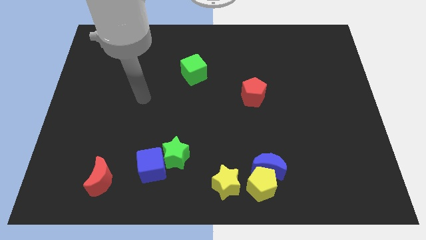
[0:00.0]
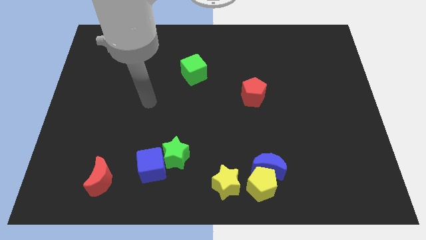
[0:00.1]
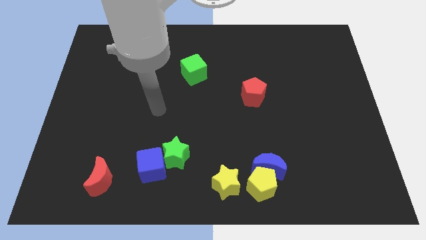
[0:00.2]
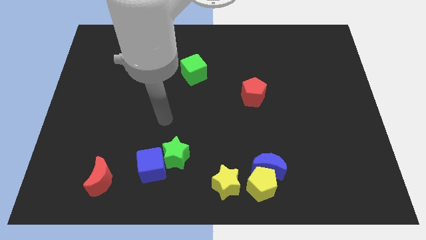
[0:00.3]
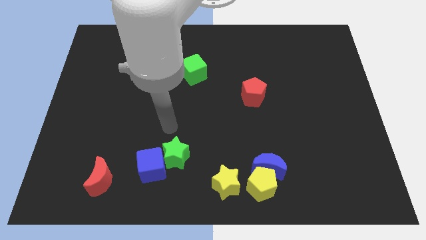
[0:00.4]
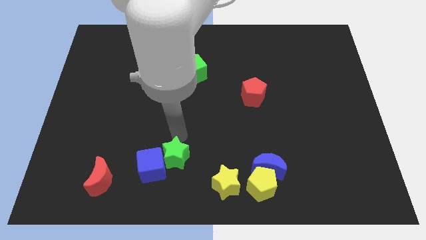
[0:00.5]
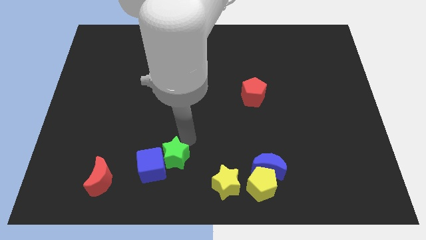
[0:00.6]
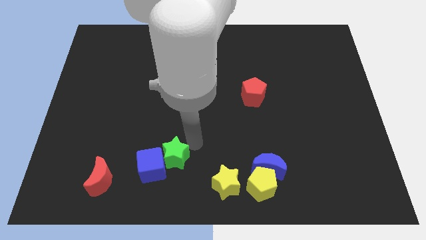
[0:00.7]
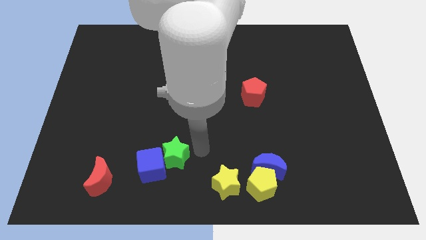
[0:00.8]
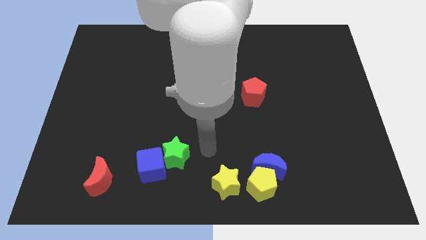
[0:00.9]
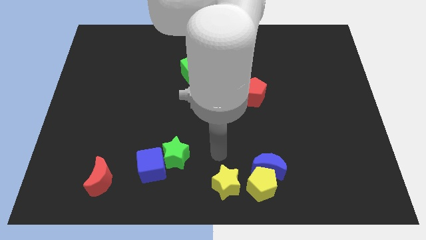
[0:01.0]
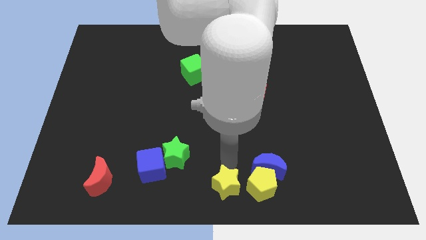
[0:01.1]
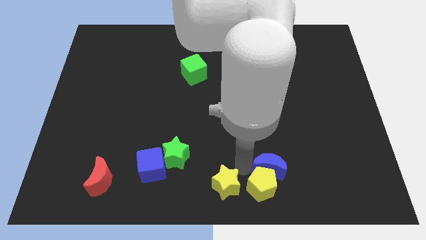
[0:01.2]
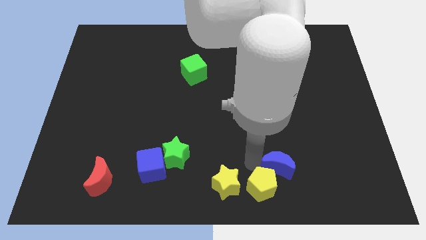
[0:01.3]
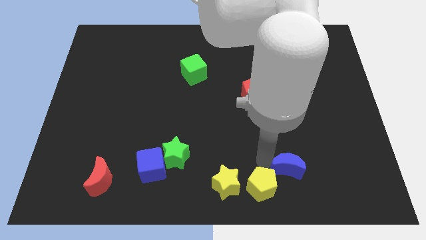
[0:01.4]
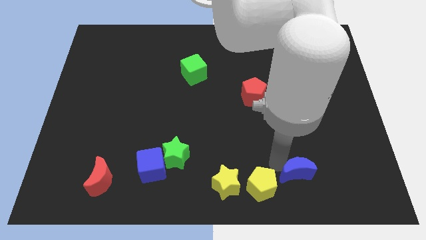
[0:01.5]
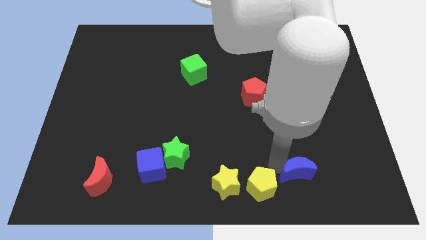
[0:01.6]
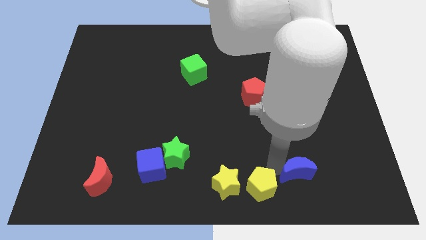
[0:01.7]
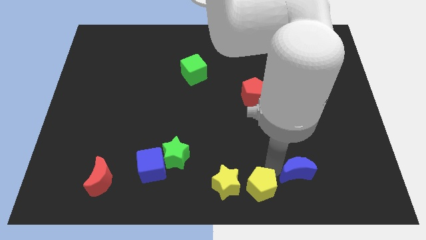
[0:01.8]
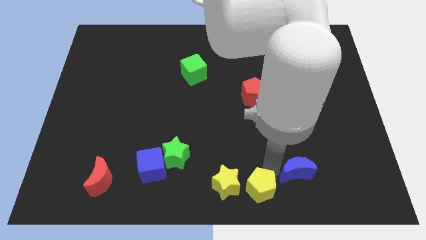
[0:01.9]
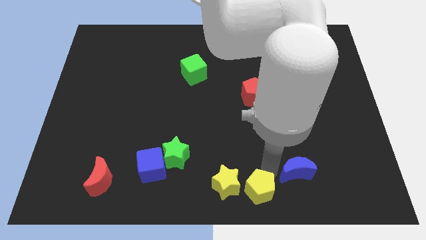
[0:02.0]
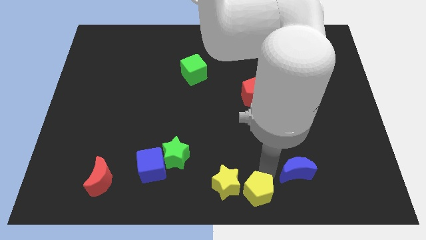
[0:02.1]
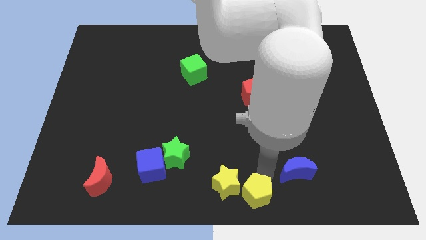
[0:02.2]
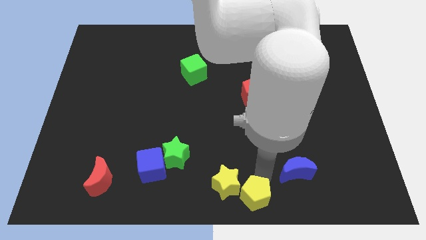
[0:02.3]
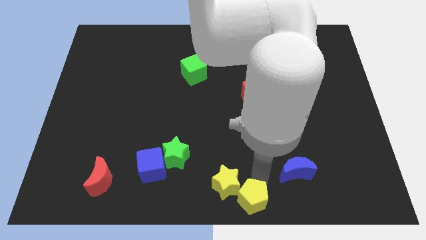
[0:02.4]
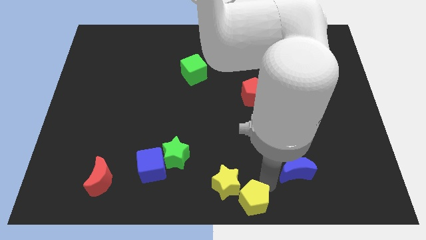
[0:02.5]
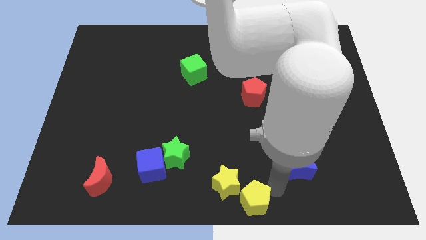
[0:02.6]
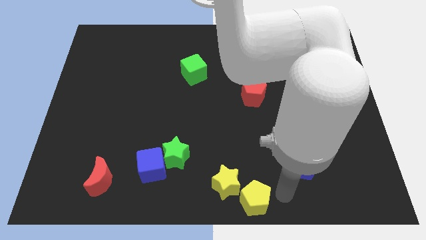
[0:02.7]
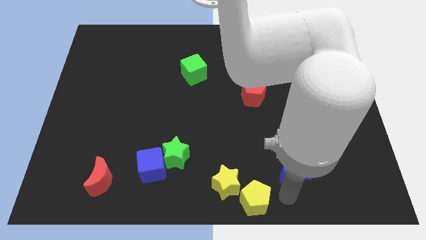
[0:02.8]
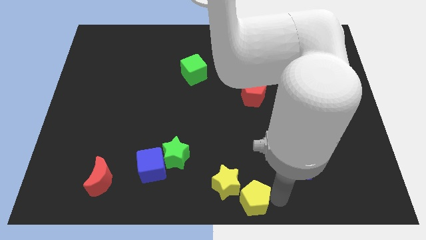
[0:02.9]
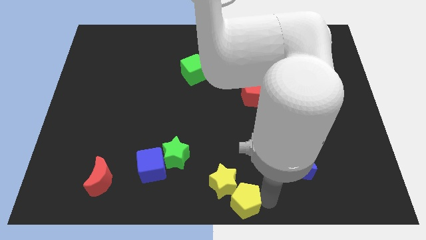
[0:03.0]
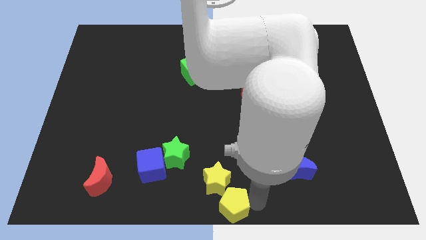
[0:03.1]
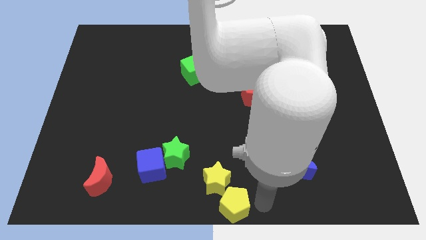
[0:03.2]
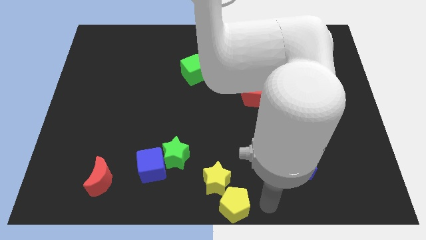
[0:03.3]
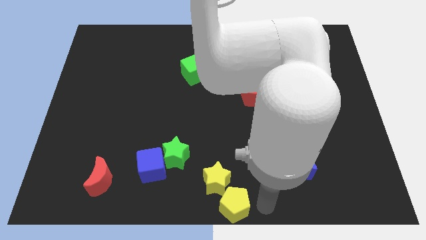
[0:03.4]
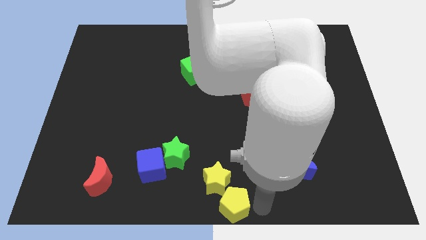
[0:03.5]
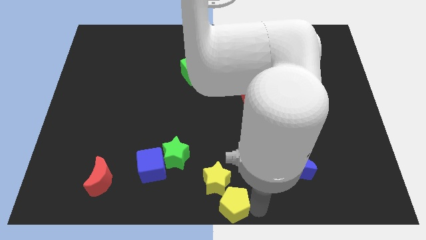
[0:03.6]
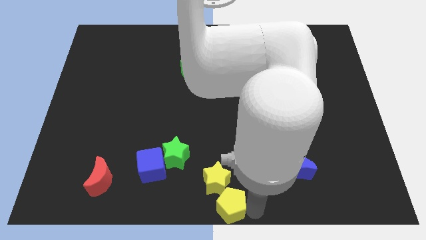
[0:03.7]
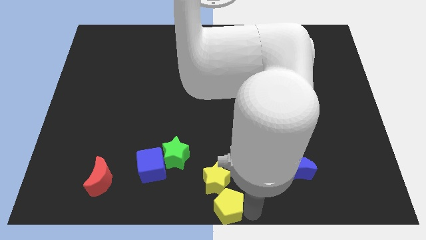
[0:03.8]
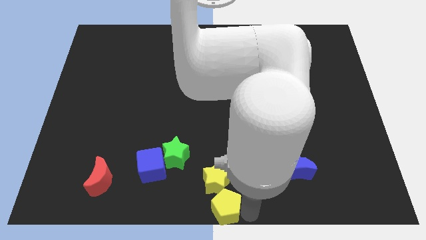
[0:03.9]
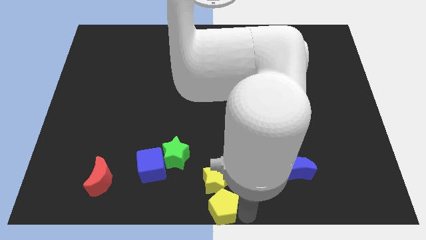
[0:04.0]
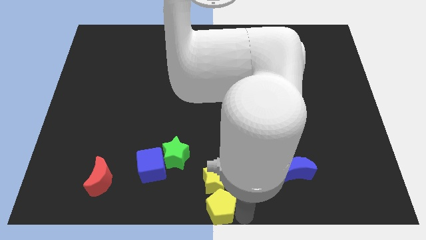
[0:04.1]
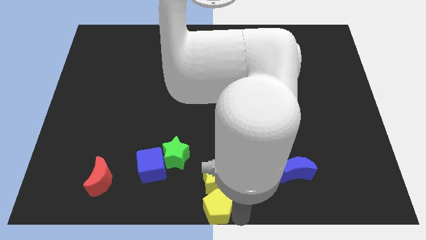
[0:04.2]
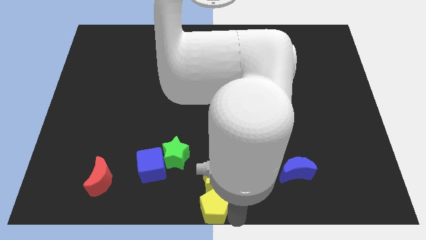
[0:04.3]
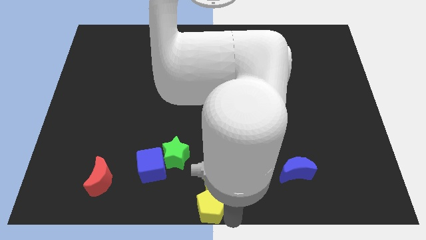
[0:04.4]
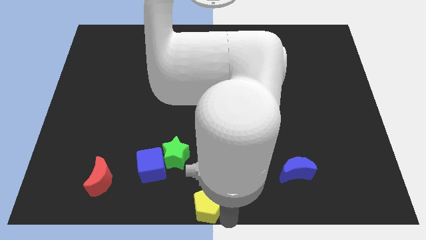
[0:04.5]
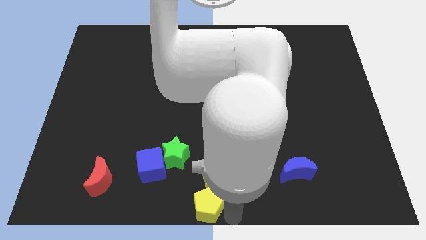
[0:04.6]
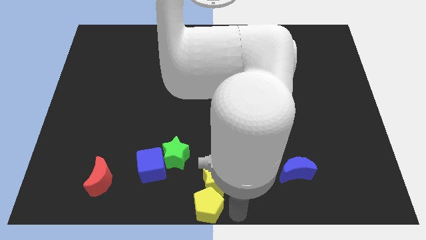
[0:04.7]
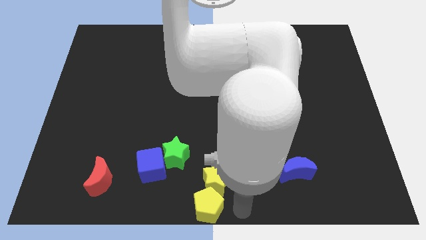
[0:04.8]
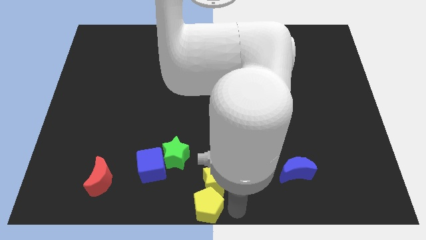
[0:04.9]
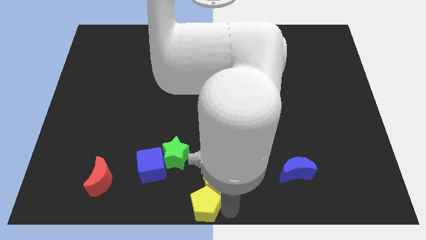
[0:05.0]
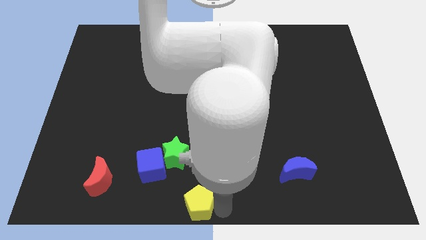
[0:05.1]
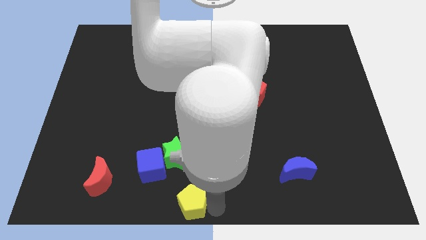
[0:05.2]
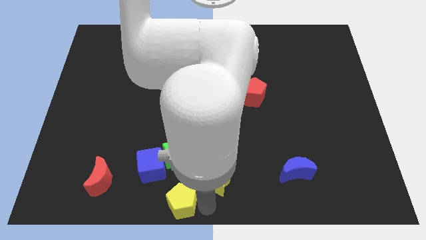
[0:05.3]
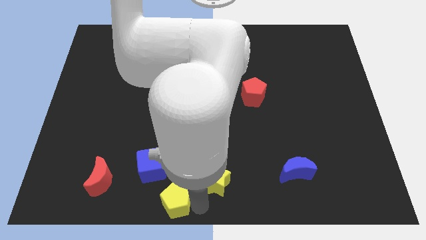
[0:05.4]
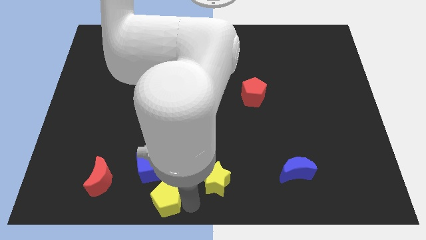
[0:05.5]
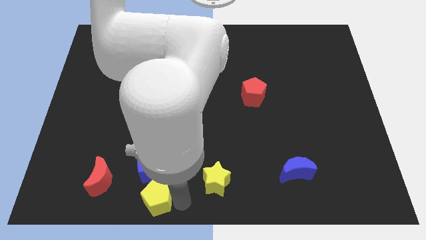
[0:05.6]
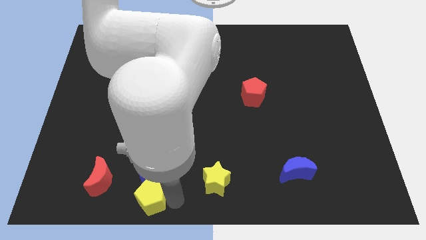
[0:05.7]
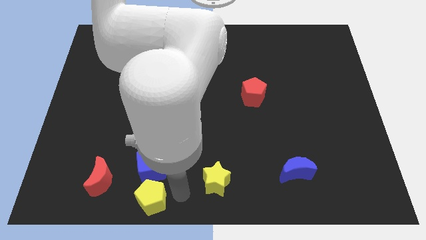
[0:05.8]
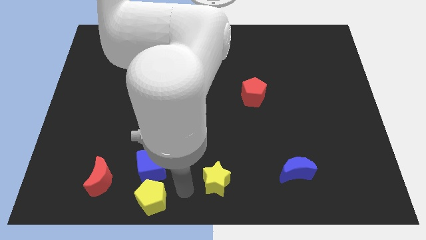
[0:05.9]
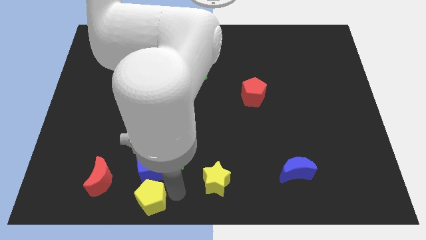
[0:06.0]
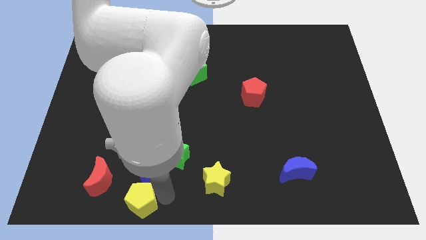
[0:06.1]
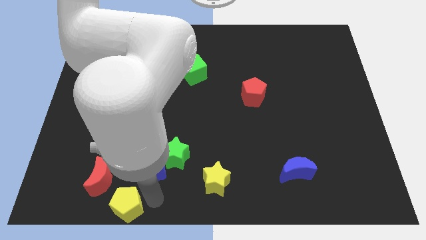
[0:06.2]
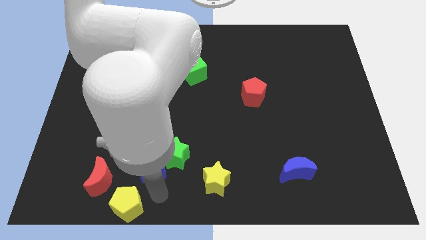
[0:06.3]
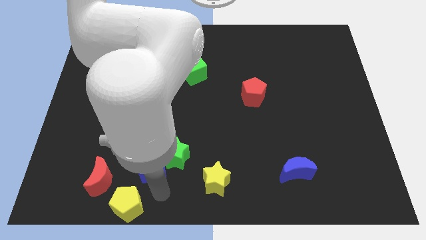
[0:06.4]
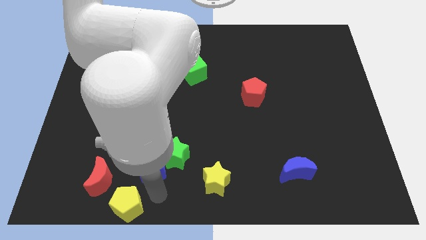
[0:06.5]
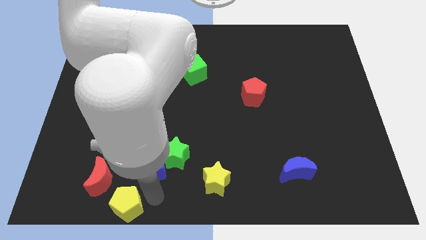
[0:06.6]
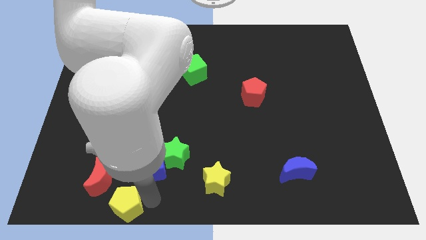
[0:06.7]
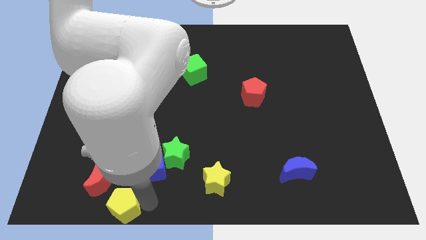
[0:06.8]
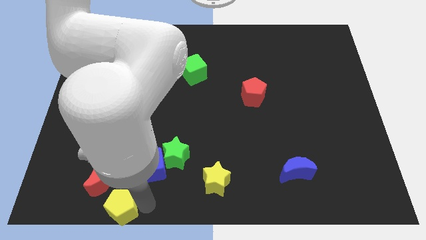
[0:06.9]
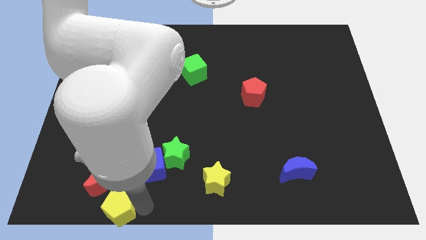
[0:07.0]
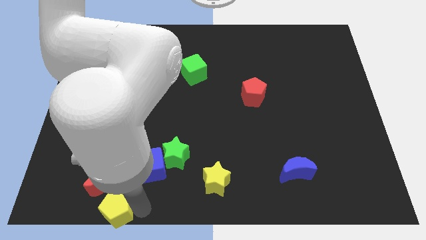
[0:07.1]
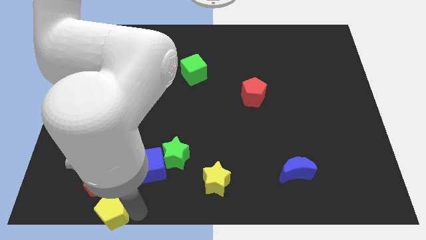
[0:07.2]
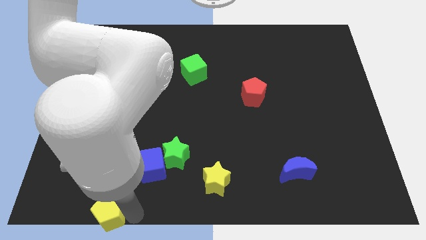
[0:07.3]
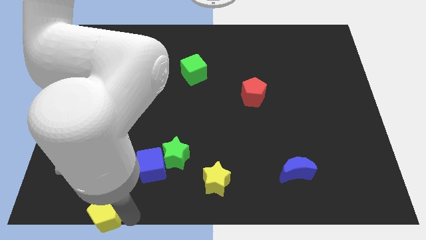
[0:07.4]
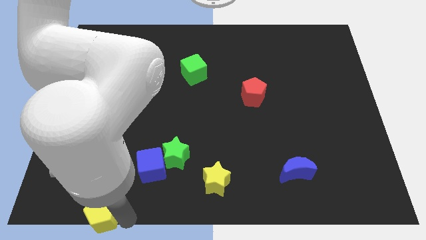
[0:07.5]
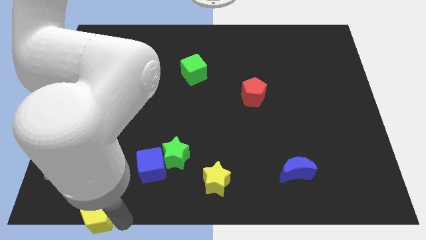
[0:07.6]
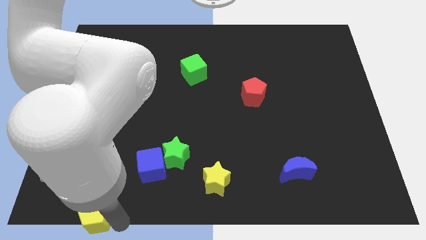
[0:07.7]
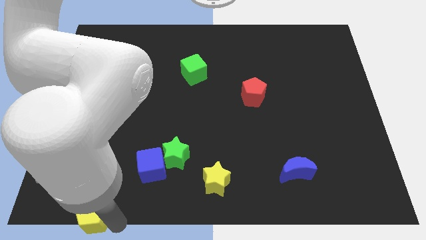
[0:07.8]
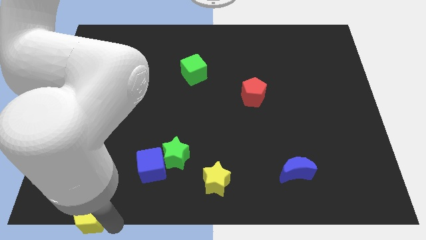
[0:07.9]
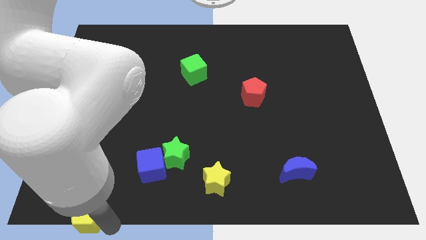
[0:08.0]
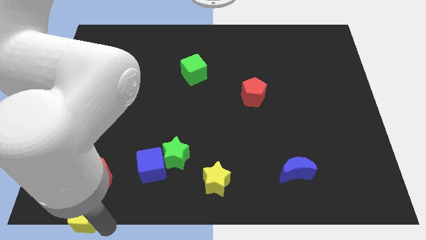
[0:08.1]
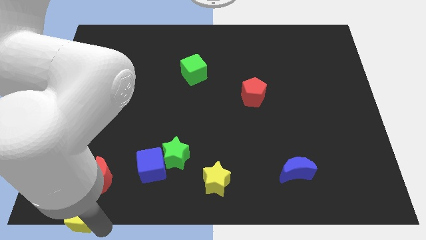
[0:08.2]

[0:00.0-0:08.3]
push the yellow pentagon to the bottom left corner
